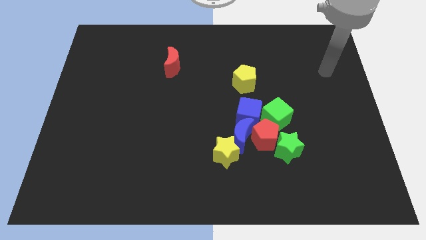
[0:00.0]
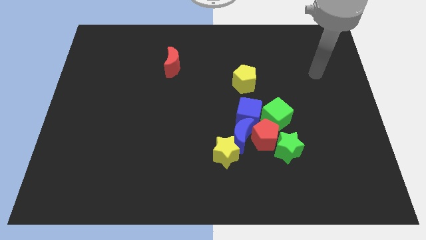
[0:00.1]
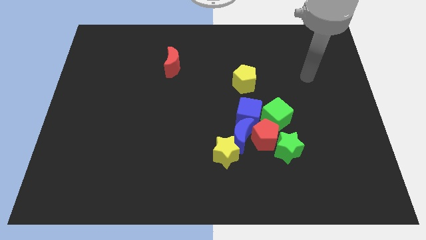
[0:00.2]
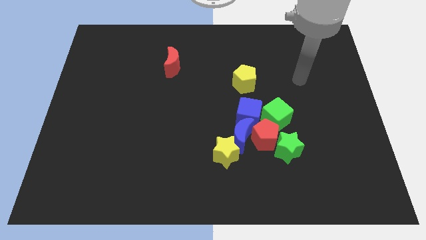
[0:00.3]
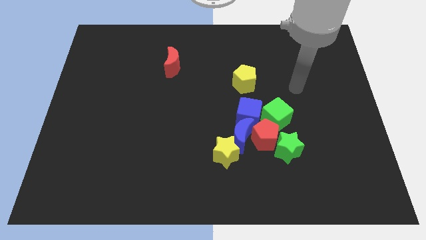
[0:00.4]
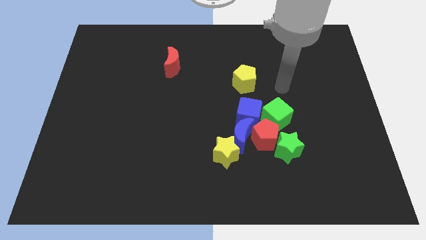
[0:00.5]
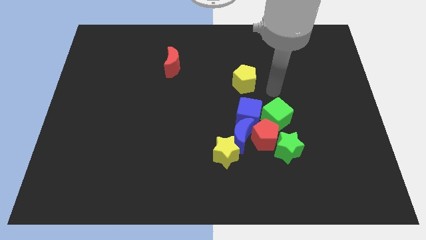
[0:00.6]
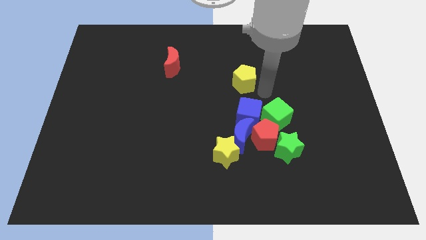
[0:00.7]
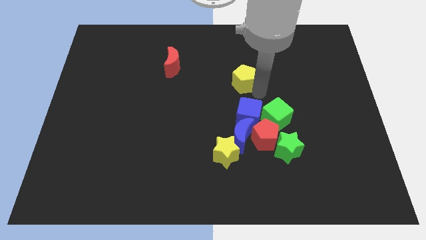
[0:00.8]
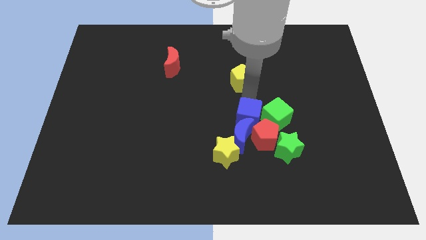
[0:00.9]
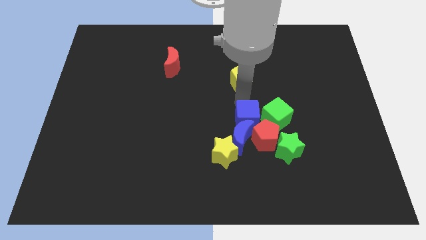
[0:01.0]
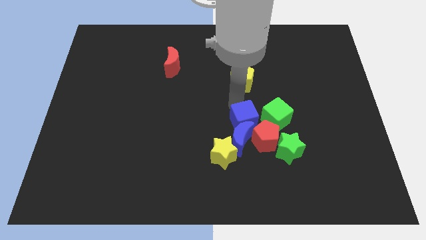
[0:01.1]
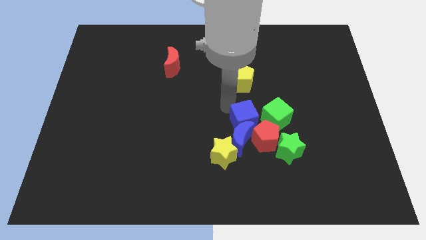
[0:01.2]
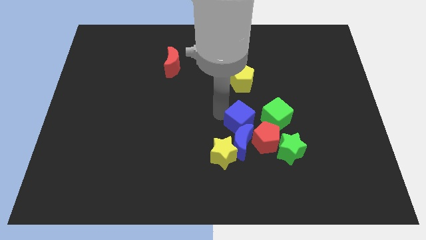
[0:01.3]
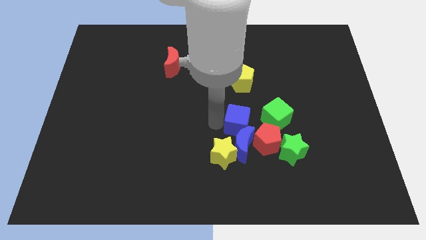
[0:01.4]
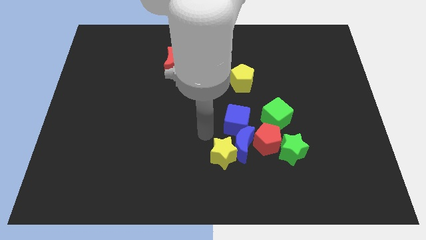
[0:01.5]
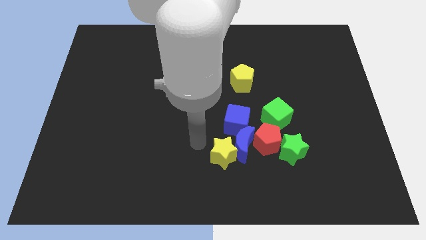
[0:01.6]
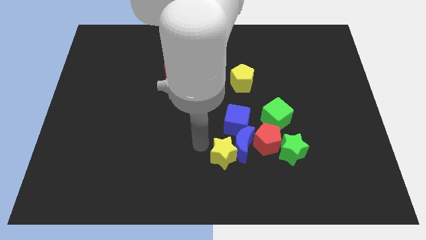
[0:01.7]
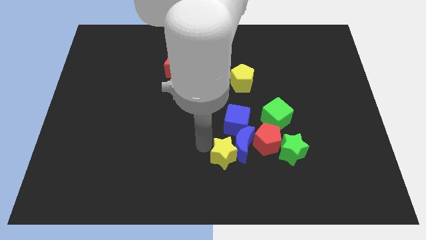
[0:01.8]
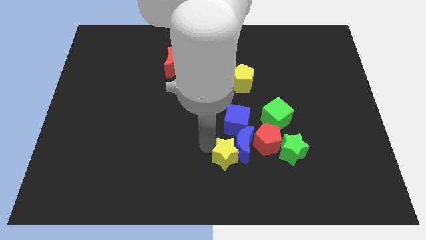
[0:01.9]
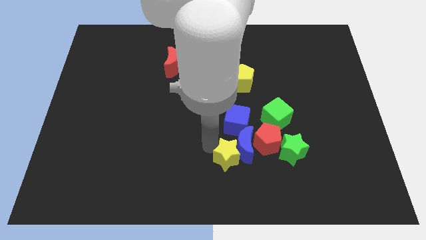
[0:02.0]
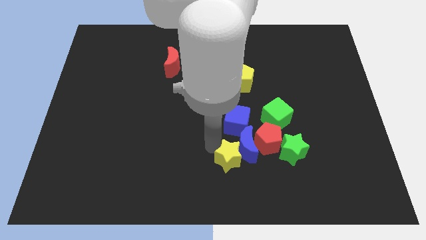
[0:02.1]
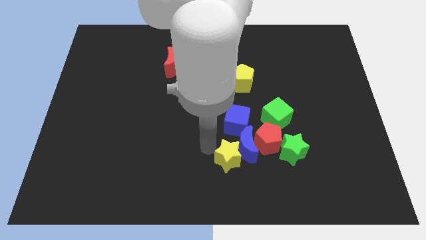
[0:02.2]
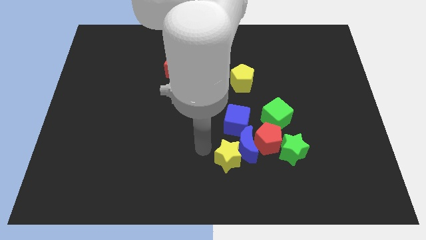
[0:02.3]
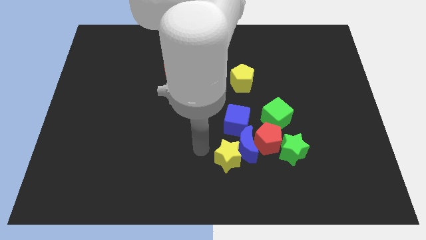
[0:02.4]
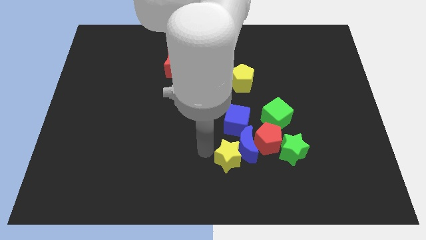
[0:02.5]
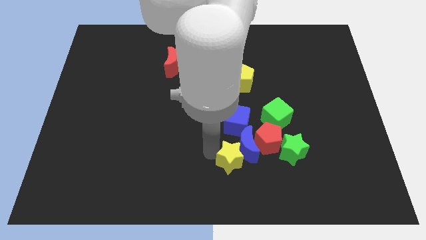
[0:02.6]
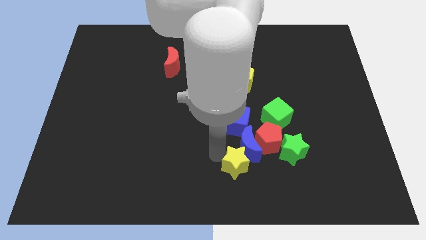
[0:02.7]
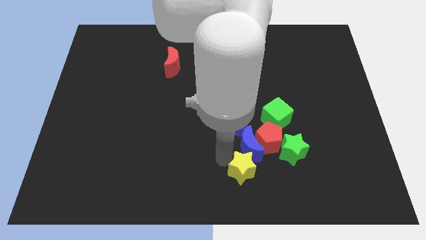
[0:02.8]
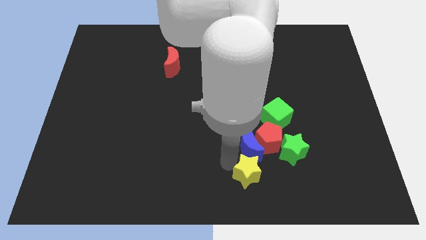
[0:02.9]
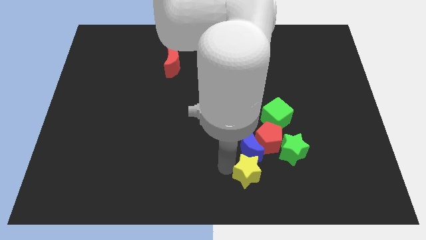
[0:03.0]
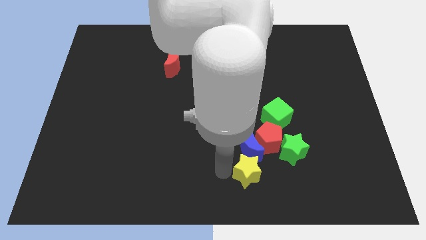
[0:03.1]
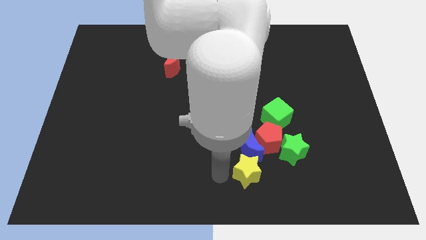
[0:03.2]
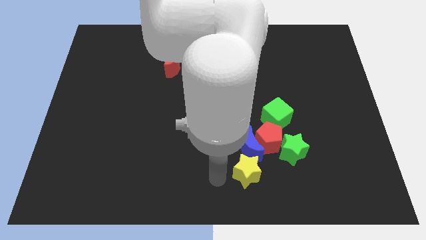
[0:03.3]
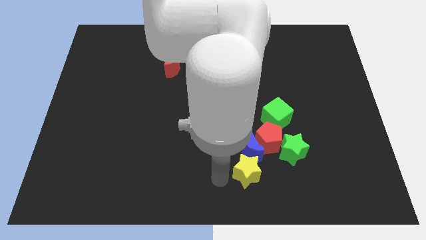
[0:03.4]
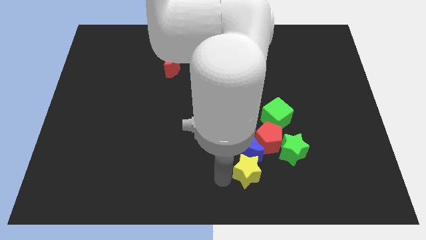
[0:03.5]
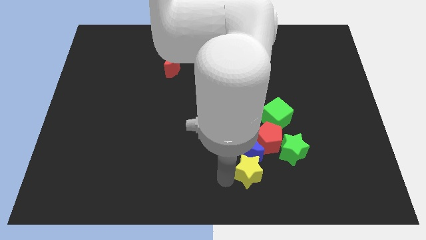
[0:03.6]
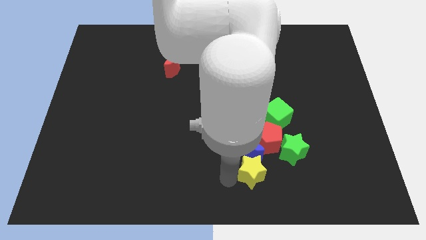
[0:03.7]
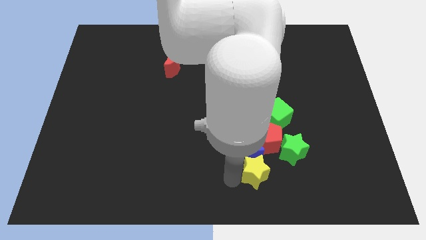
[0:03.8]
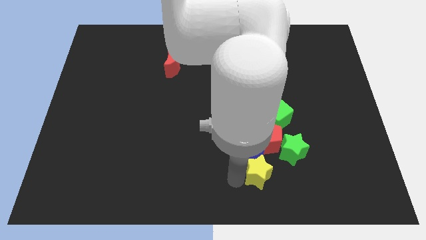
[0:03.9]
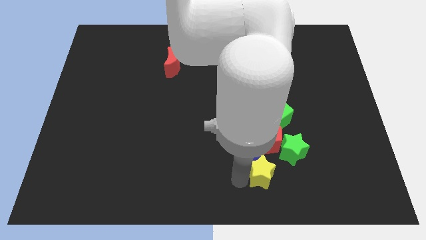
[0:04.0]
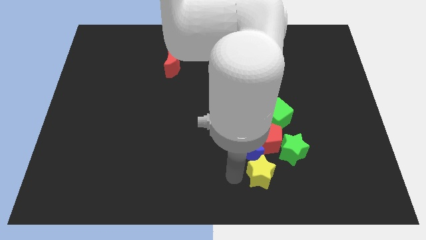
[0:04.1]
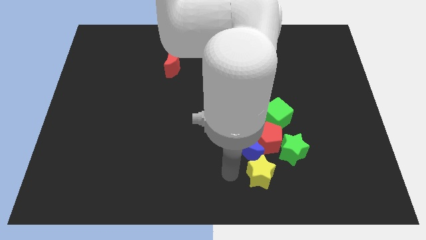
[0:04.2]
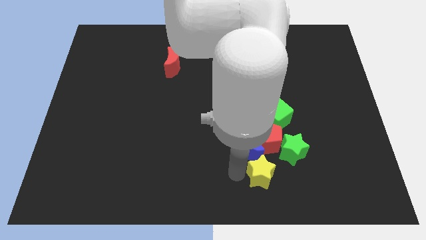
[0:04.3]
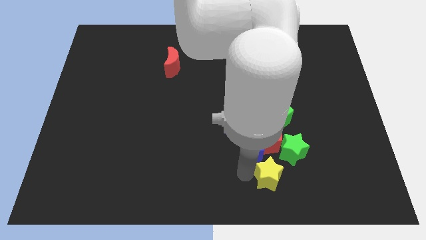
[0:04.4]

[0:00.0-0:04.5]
slide the yellow star right a bit

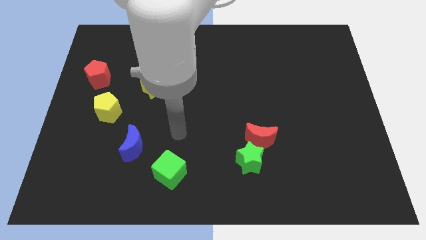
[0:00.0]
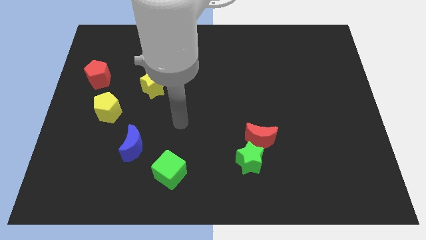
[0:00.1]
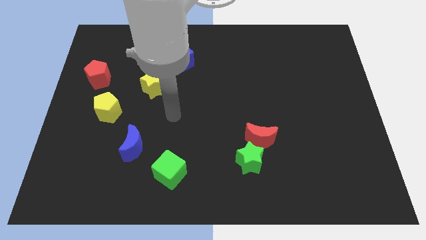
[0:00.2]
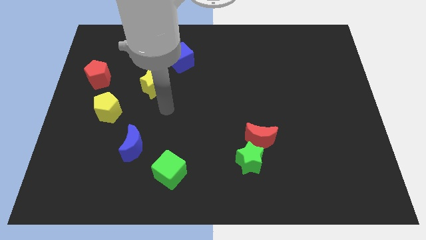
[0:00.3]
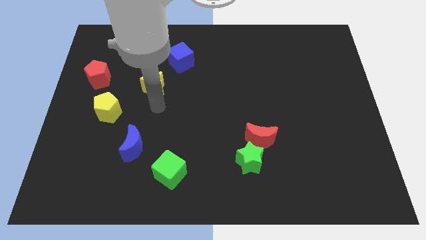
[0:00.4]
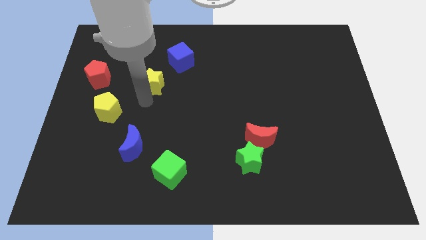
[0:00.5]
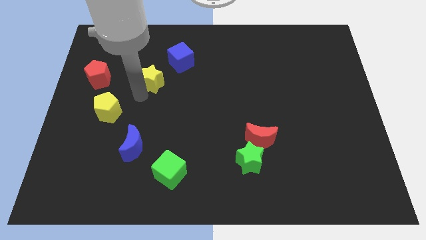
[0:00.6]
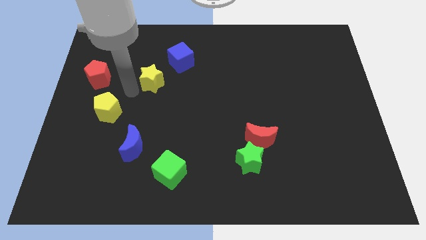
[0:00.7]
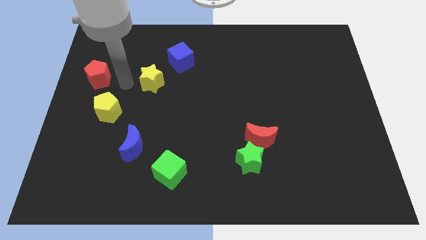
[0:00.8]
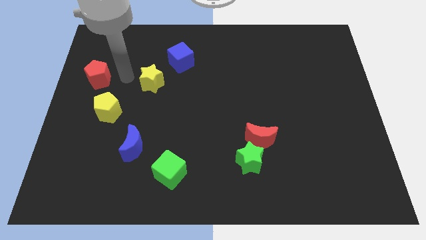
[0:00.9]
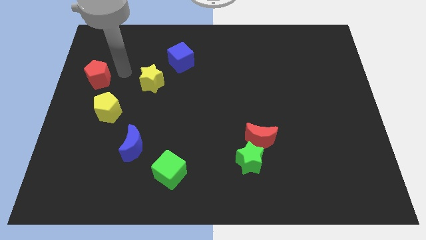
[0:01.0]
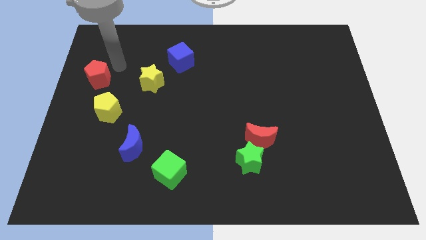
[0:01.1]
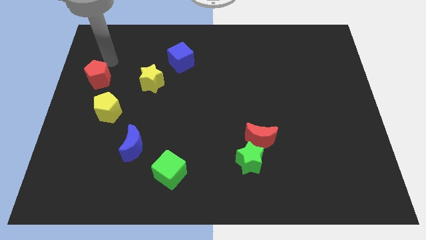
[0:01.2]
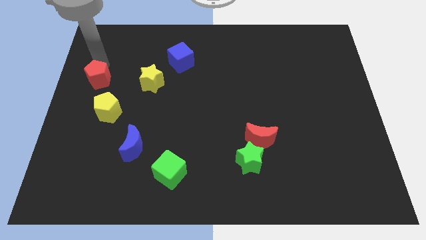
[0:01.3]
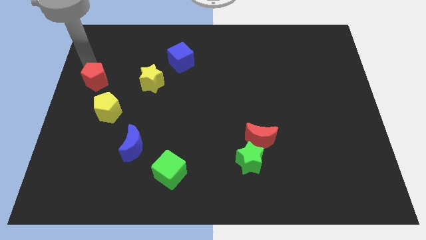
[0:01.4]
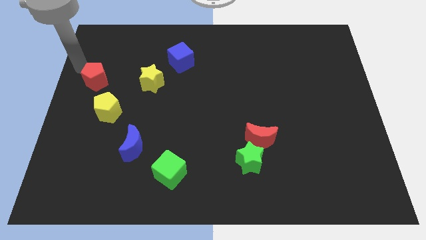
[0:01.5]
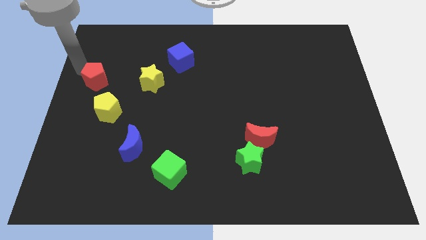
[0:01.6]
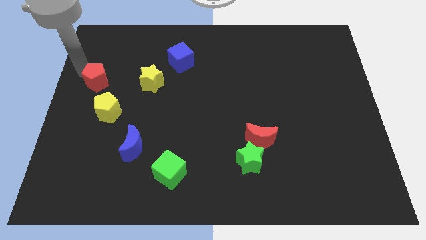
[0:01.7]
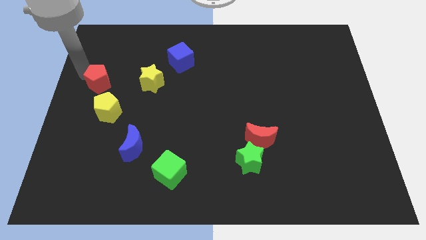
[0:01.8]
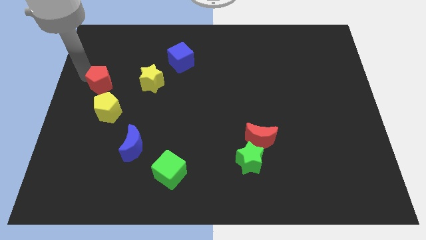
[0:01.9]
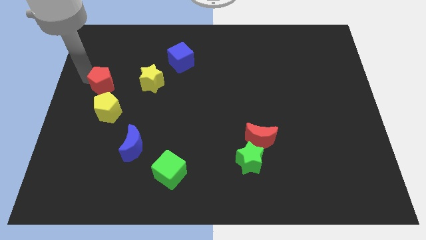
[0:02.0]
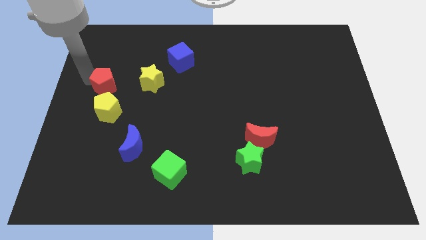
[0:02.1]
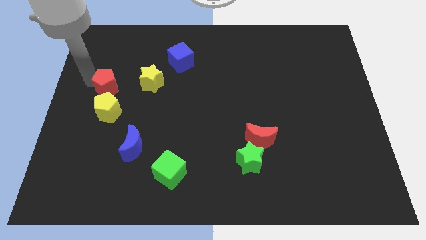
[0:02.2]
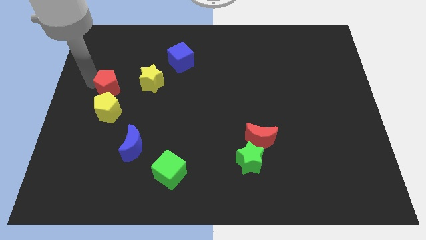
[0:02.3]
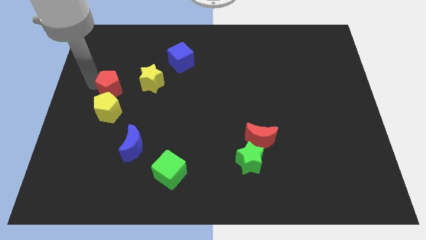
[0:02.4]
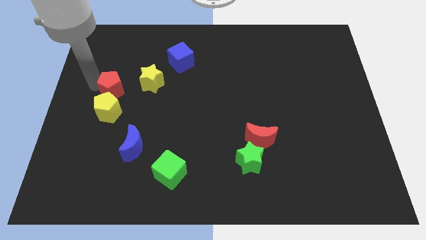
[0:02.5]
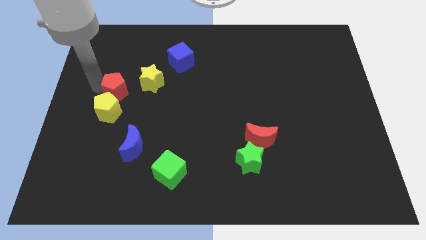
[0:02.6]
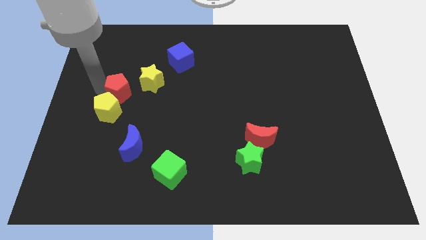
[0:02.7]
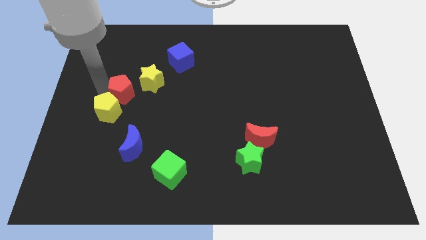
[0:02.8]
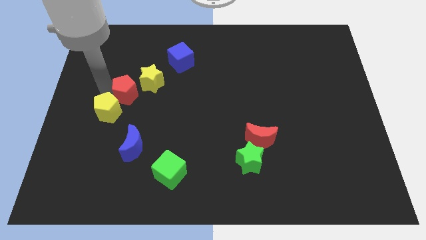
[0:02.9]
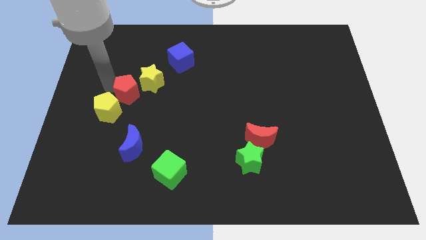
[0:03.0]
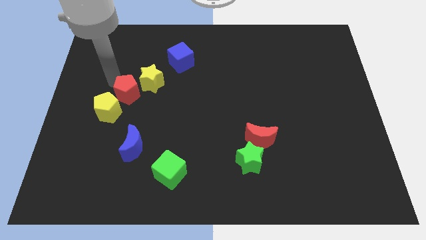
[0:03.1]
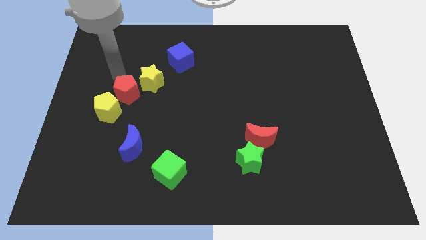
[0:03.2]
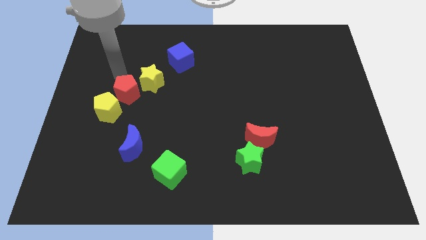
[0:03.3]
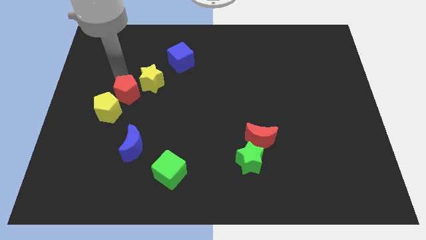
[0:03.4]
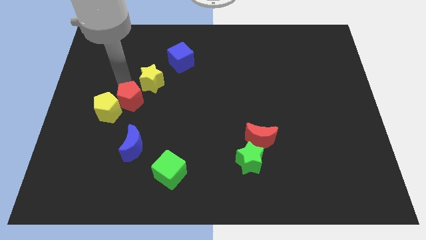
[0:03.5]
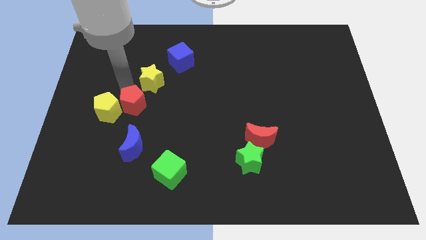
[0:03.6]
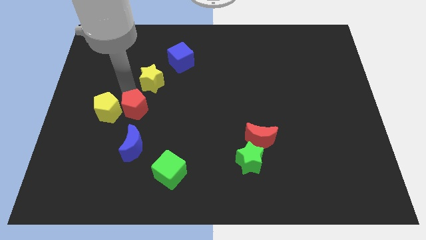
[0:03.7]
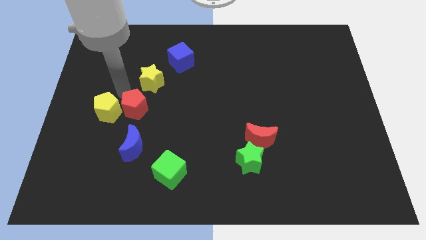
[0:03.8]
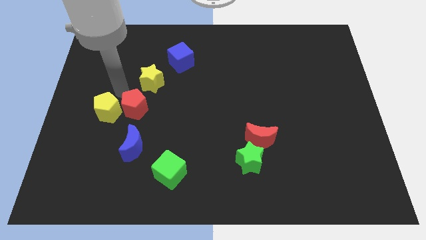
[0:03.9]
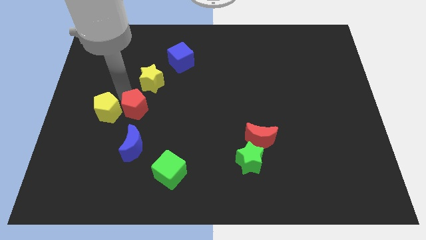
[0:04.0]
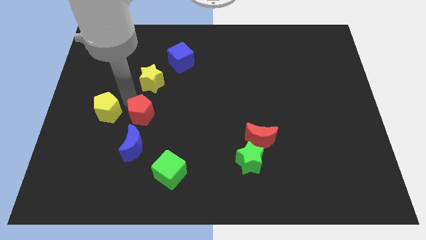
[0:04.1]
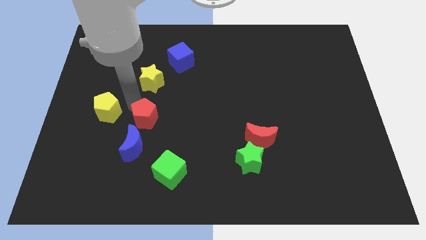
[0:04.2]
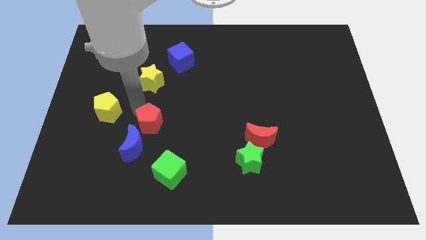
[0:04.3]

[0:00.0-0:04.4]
slide the red pentagon down and then right
